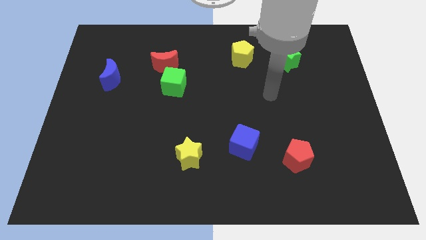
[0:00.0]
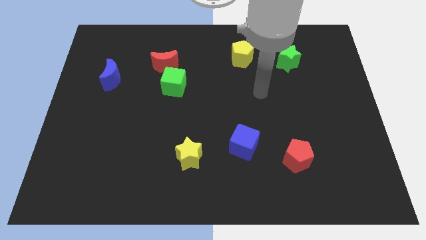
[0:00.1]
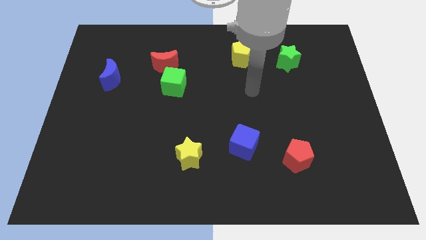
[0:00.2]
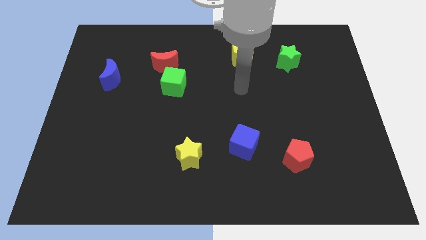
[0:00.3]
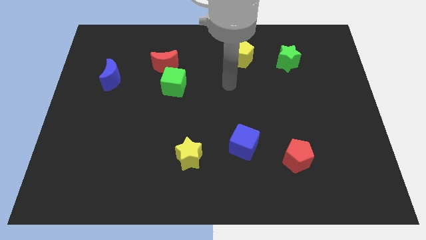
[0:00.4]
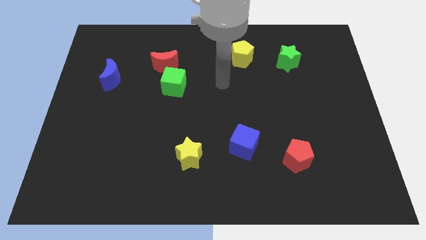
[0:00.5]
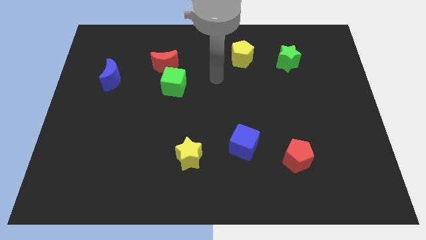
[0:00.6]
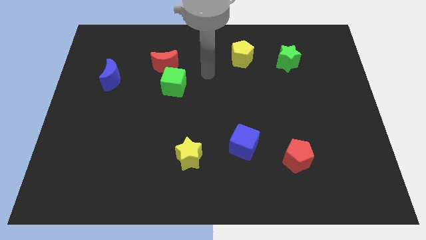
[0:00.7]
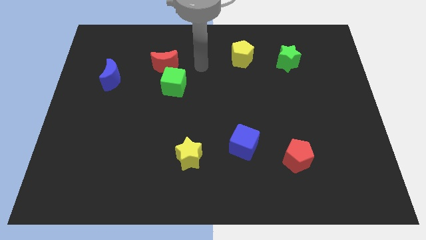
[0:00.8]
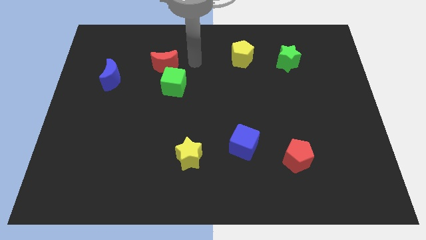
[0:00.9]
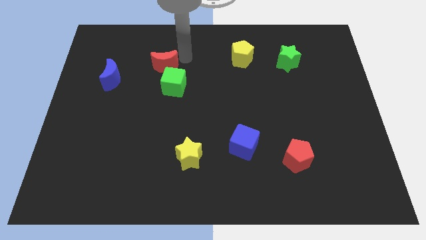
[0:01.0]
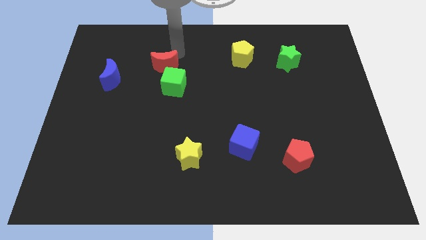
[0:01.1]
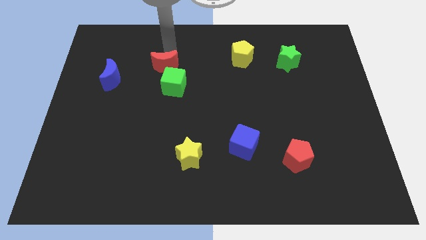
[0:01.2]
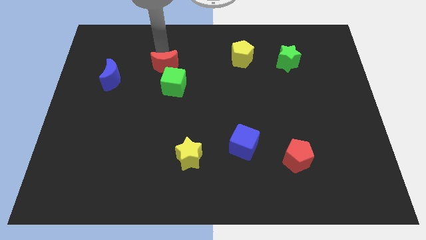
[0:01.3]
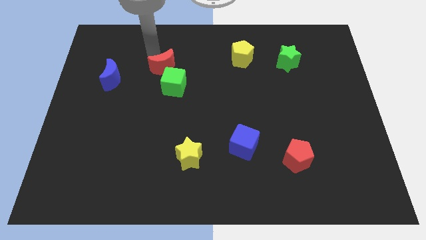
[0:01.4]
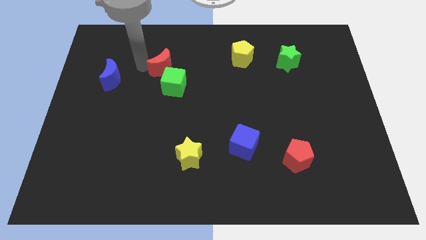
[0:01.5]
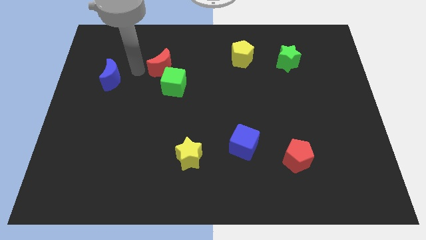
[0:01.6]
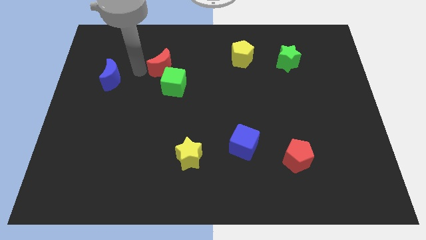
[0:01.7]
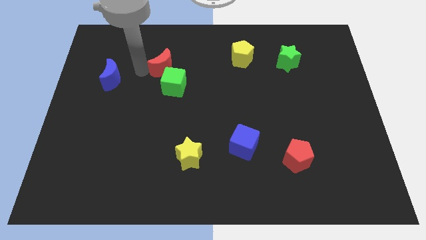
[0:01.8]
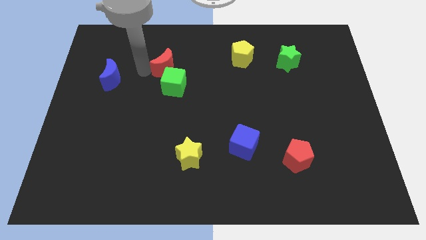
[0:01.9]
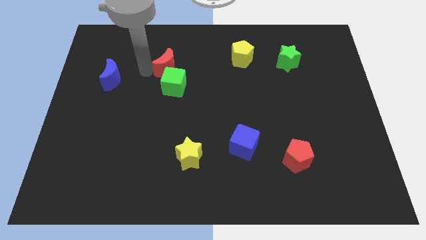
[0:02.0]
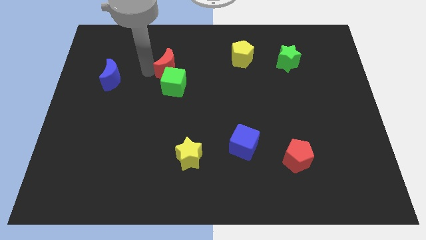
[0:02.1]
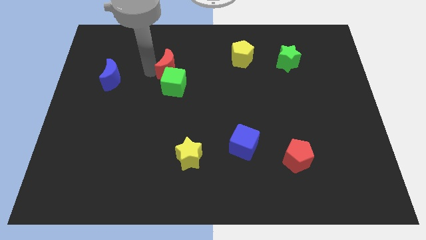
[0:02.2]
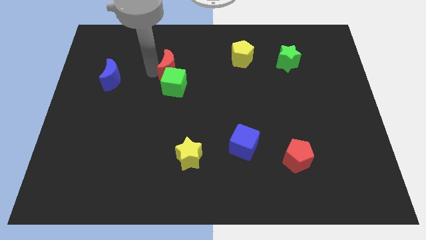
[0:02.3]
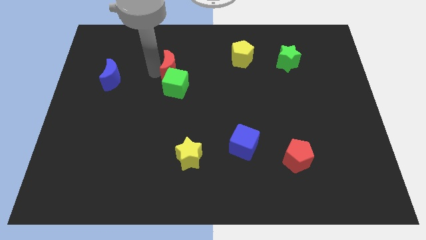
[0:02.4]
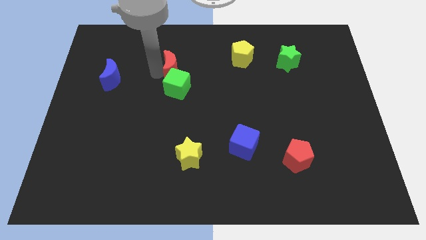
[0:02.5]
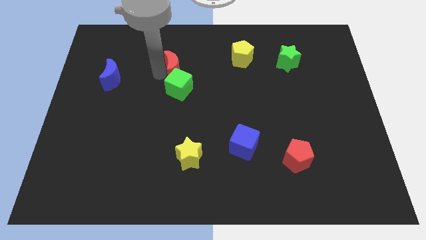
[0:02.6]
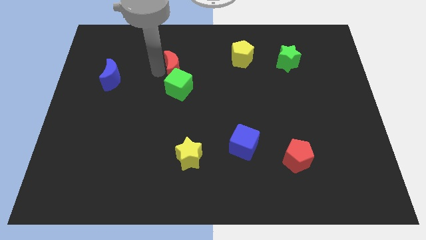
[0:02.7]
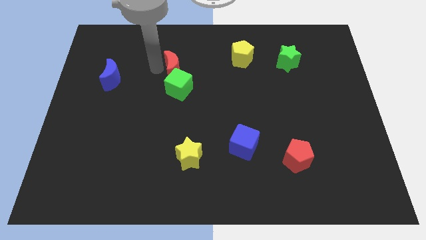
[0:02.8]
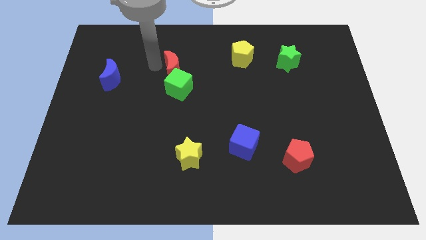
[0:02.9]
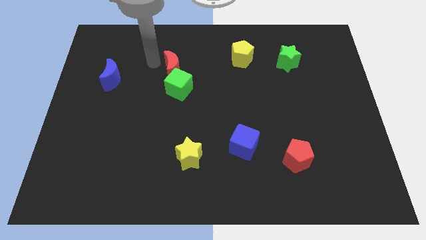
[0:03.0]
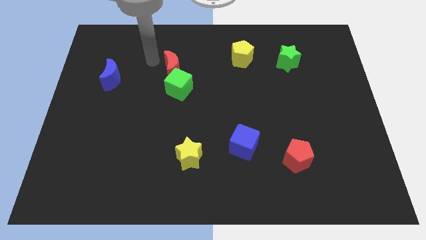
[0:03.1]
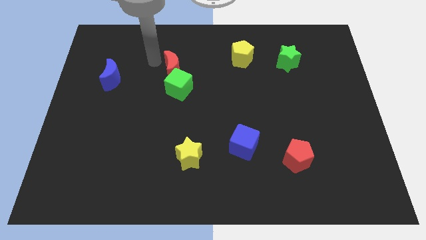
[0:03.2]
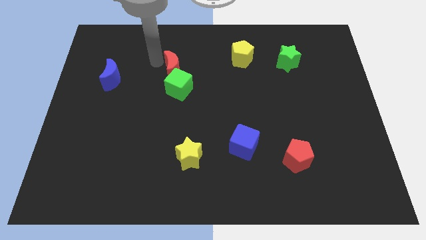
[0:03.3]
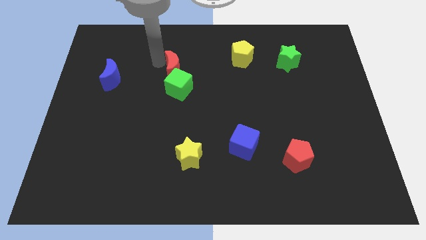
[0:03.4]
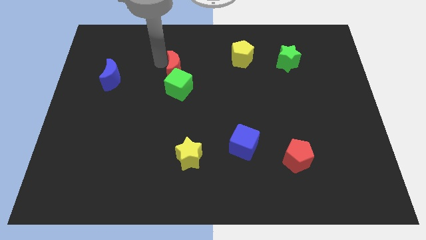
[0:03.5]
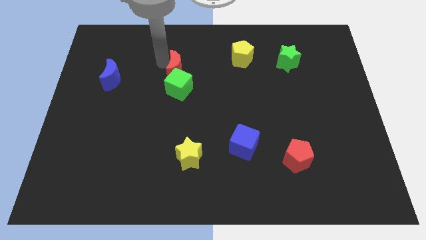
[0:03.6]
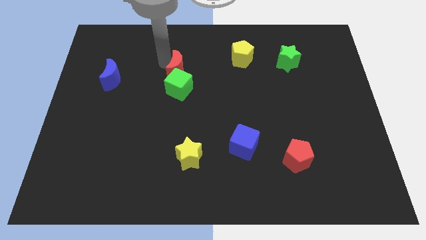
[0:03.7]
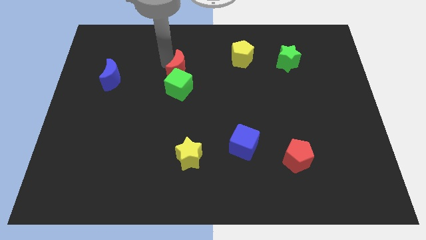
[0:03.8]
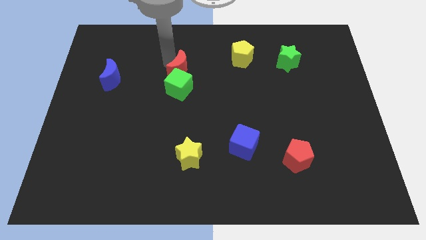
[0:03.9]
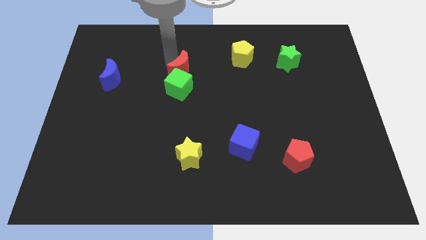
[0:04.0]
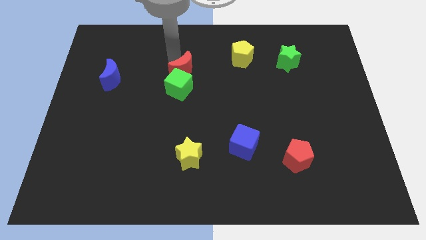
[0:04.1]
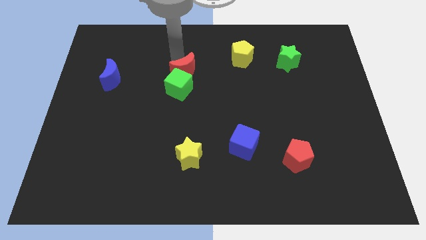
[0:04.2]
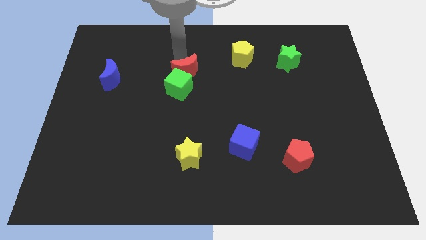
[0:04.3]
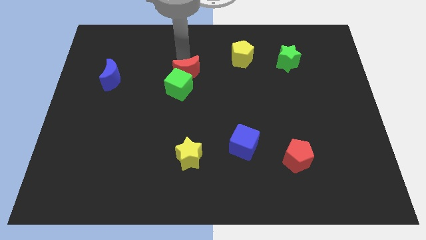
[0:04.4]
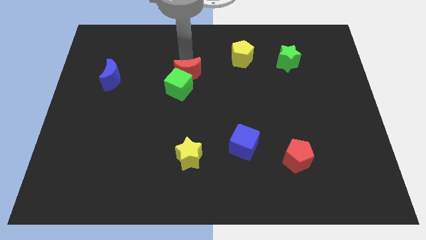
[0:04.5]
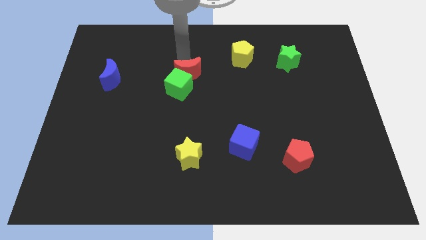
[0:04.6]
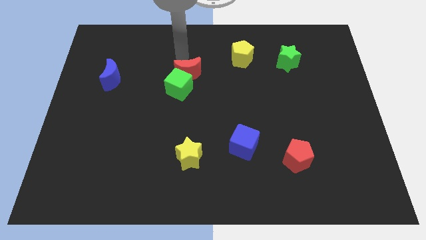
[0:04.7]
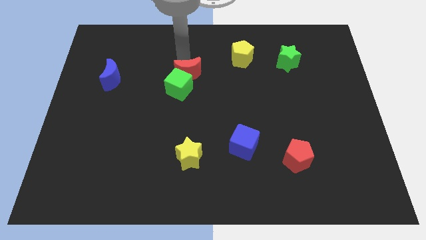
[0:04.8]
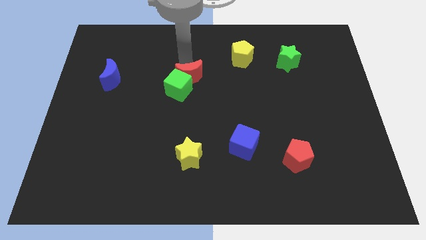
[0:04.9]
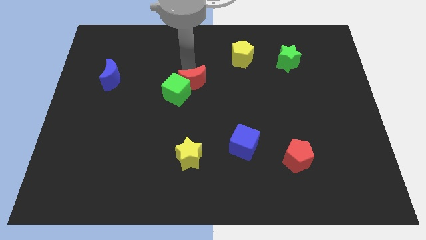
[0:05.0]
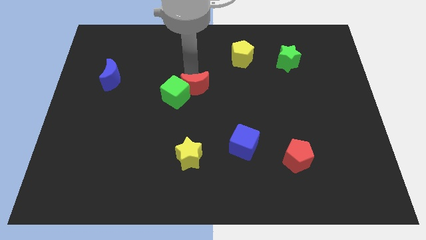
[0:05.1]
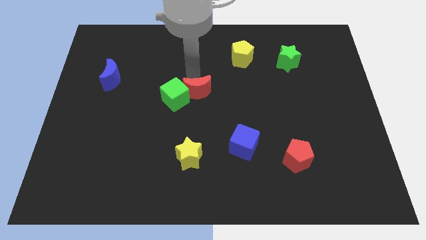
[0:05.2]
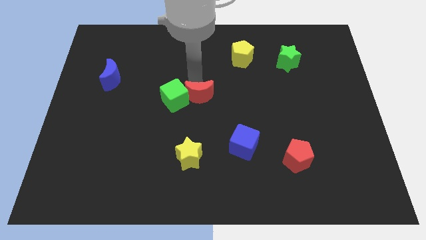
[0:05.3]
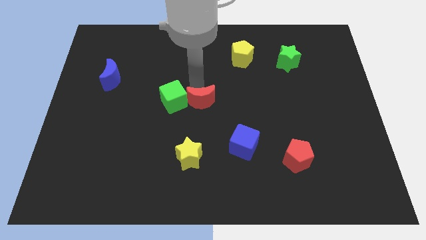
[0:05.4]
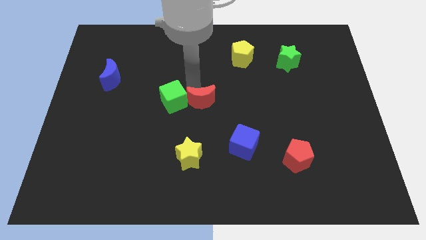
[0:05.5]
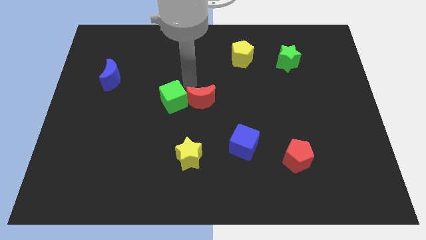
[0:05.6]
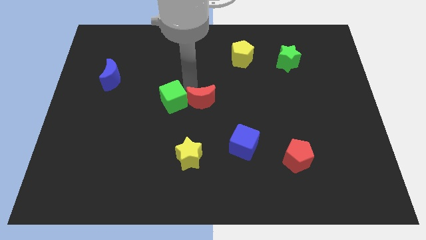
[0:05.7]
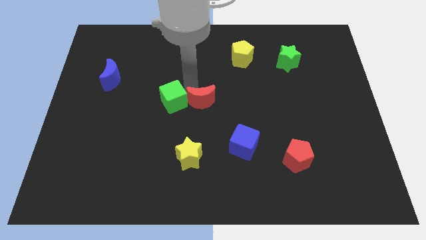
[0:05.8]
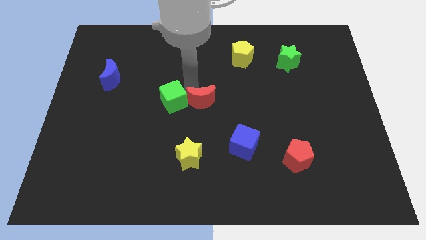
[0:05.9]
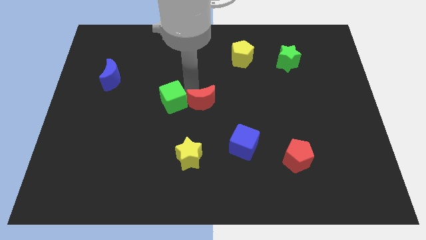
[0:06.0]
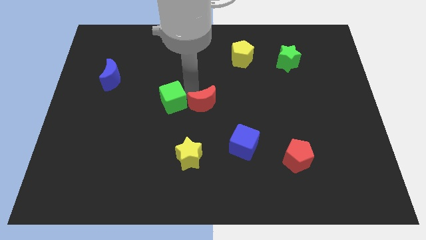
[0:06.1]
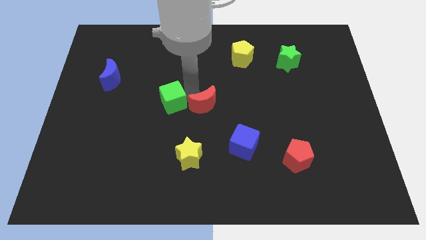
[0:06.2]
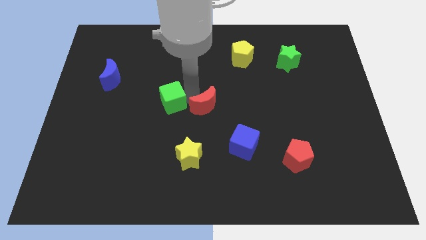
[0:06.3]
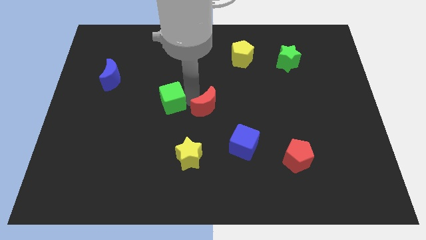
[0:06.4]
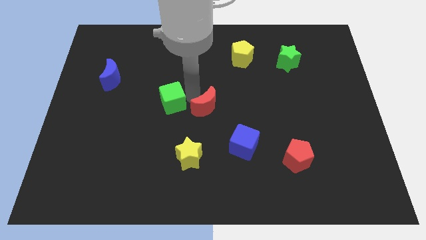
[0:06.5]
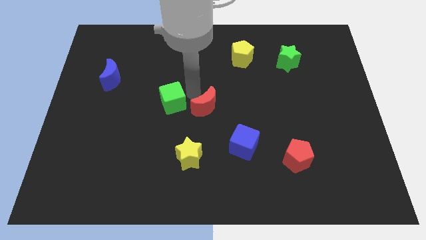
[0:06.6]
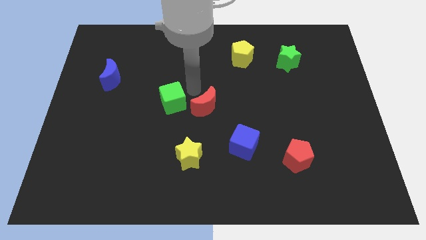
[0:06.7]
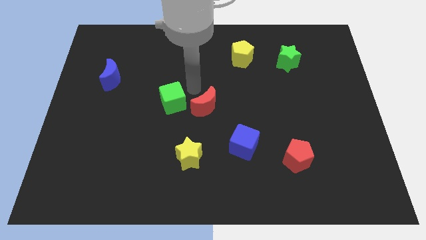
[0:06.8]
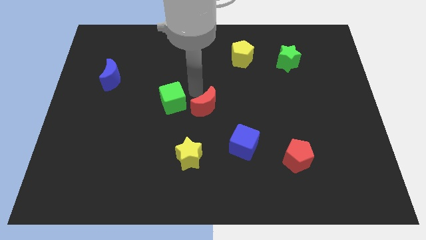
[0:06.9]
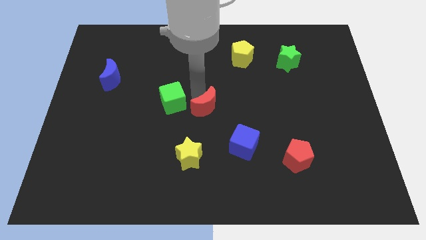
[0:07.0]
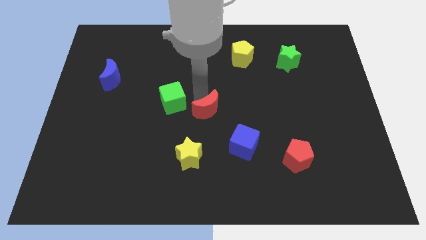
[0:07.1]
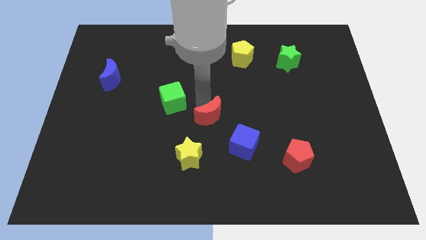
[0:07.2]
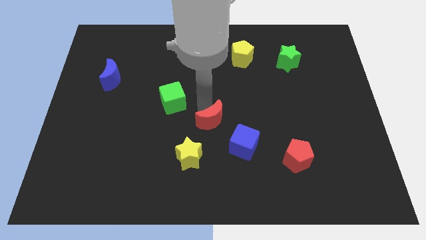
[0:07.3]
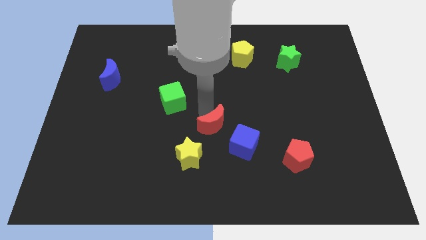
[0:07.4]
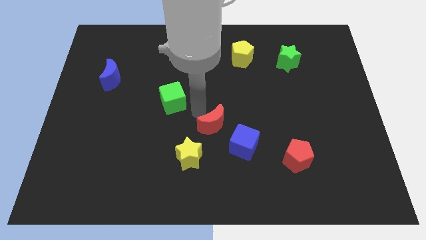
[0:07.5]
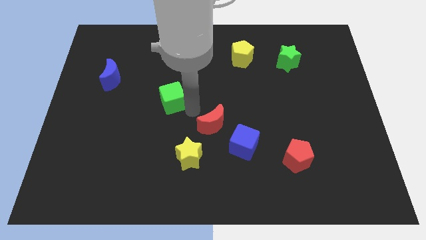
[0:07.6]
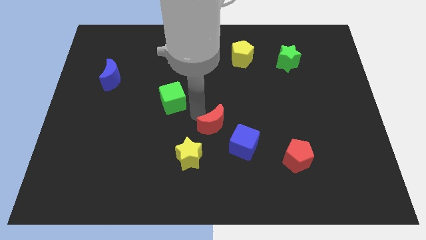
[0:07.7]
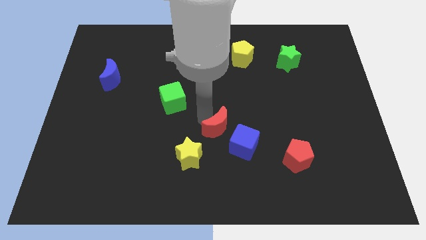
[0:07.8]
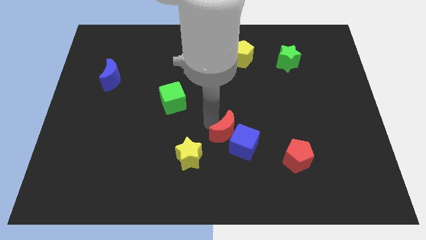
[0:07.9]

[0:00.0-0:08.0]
move the red moon next to the blue cube
